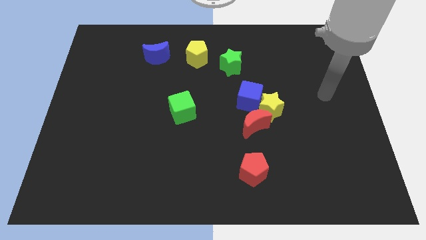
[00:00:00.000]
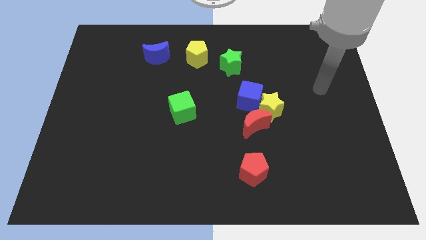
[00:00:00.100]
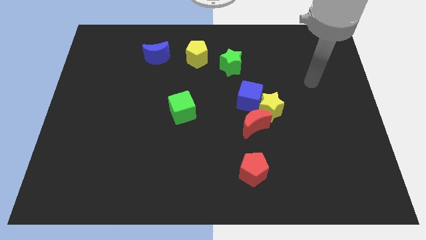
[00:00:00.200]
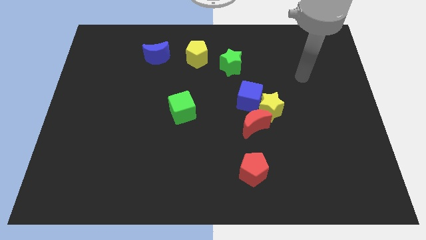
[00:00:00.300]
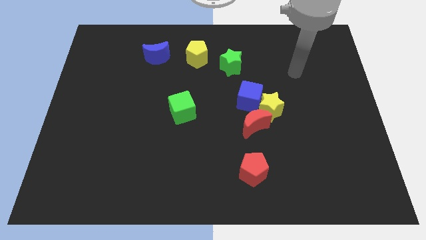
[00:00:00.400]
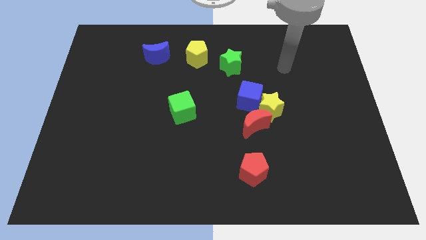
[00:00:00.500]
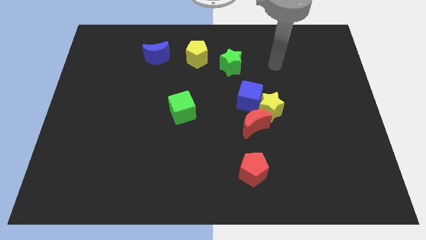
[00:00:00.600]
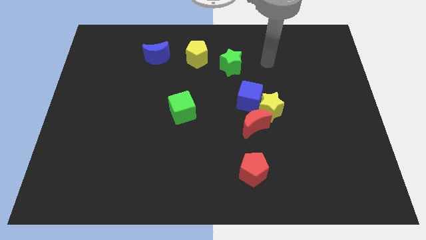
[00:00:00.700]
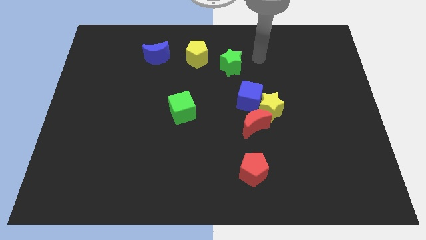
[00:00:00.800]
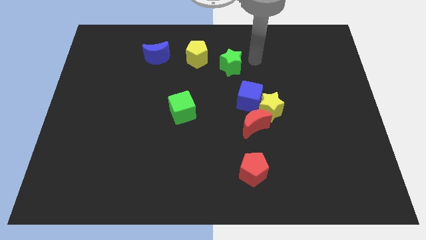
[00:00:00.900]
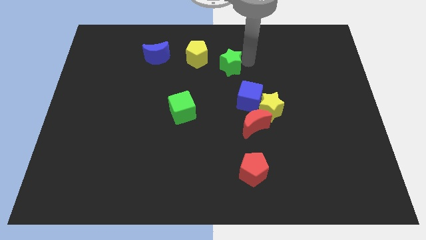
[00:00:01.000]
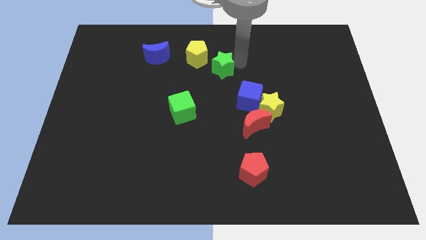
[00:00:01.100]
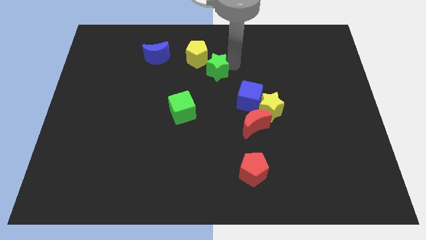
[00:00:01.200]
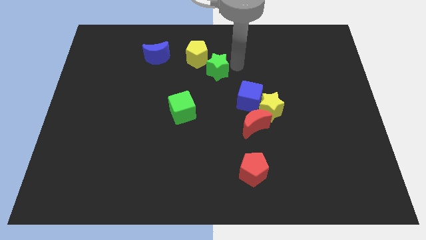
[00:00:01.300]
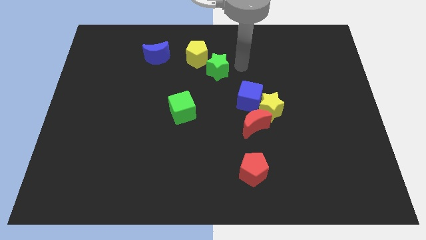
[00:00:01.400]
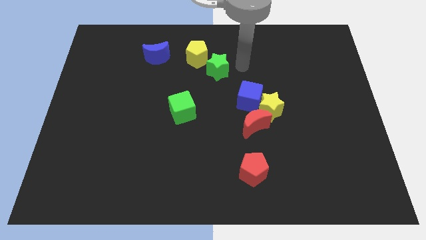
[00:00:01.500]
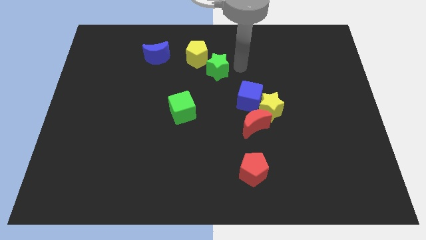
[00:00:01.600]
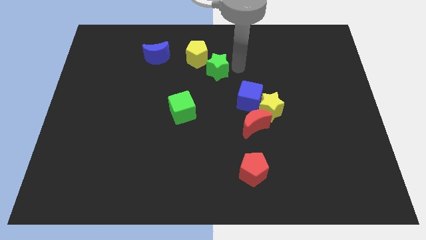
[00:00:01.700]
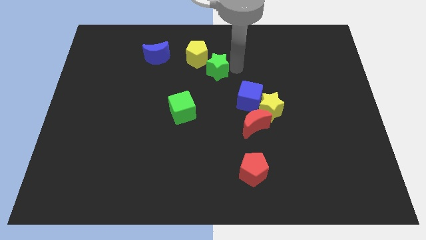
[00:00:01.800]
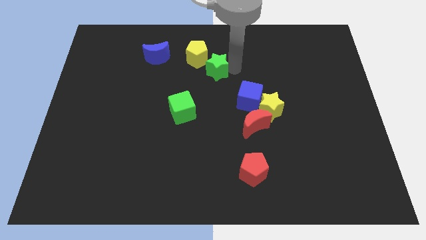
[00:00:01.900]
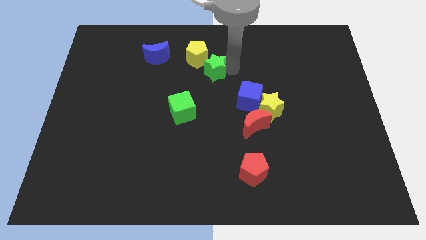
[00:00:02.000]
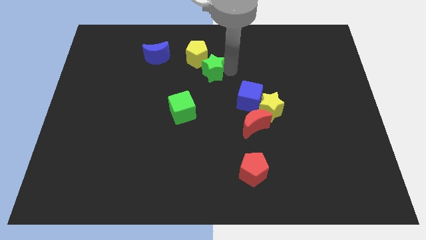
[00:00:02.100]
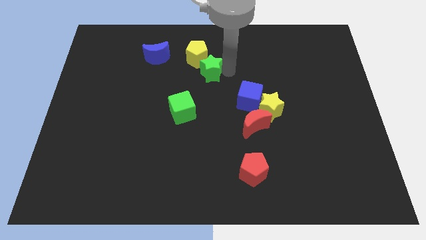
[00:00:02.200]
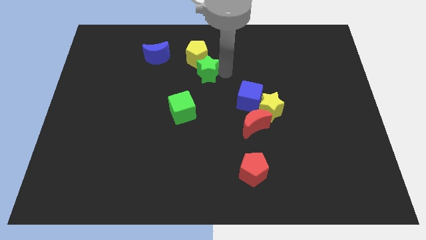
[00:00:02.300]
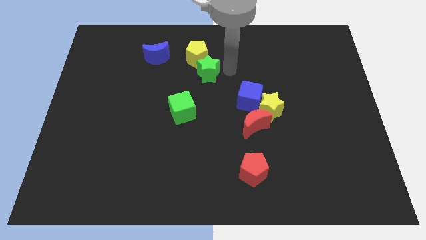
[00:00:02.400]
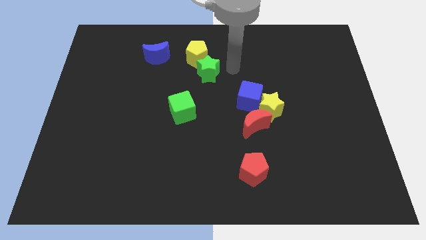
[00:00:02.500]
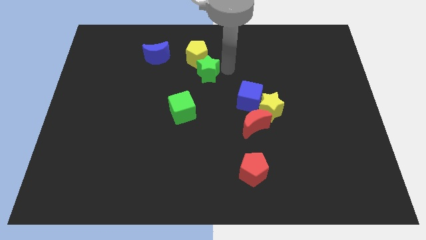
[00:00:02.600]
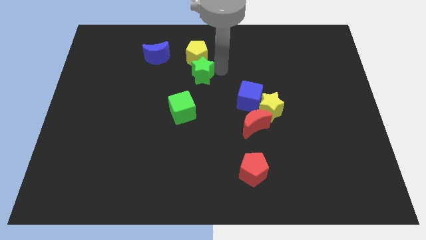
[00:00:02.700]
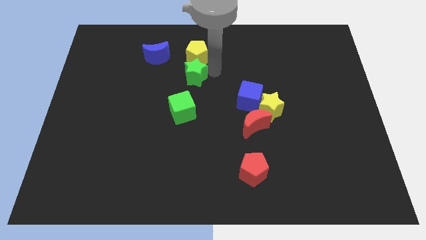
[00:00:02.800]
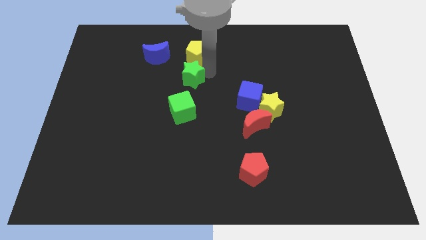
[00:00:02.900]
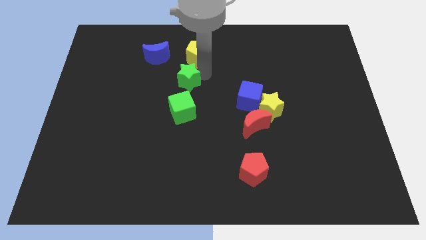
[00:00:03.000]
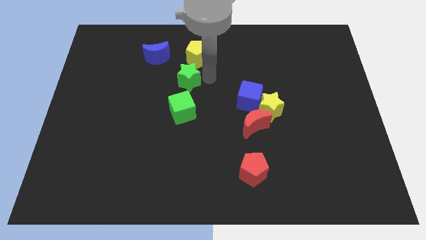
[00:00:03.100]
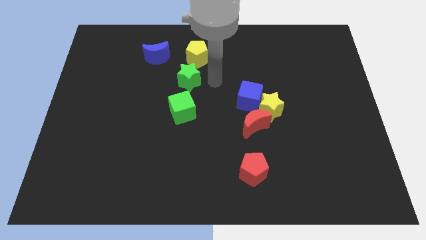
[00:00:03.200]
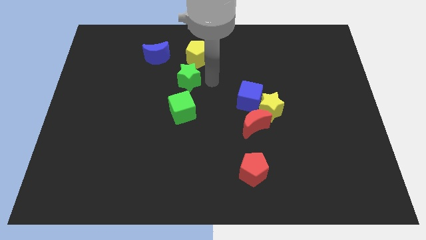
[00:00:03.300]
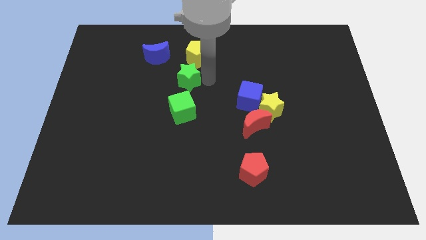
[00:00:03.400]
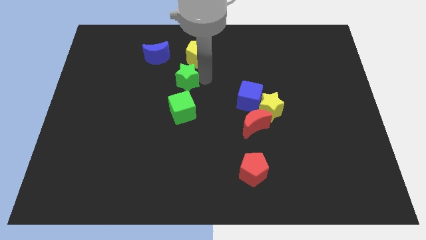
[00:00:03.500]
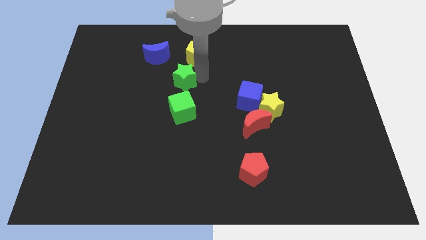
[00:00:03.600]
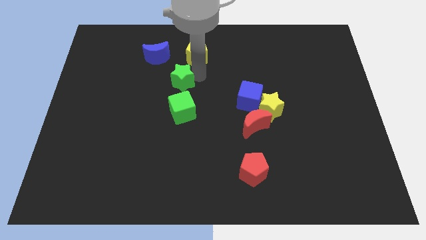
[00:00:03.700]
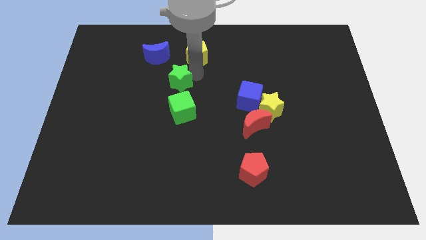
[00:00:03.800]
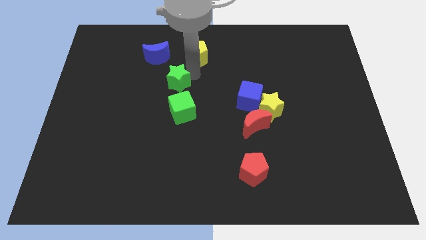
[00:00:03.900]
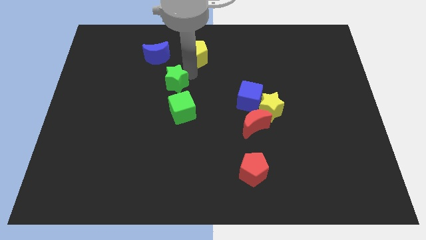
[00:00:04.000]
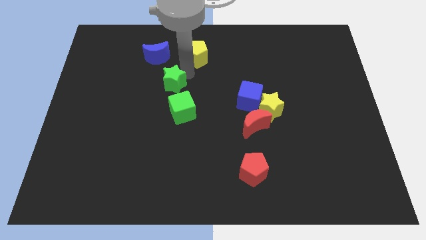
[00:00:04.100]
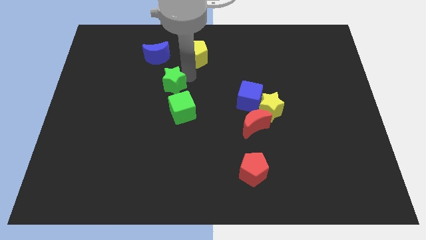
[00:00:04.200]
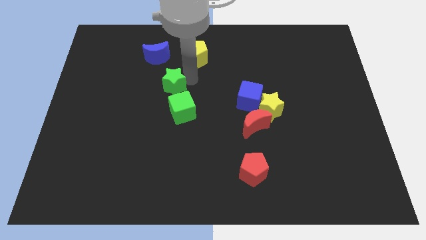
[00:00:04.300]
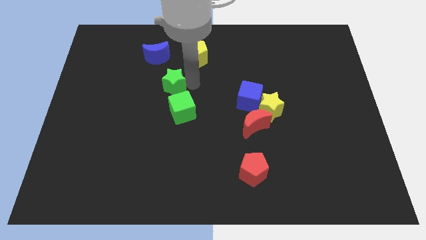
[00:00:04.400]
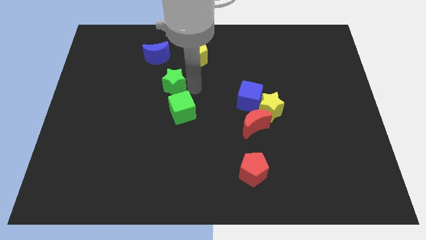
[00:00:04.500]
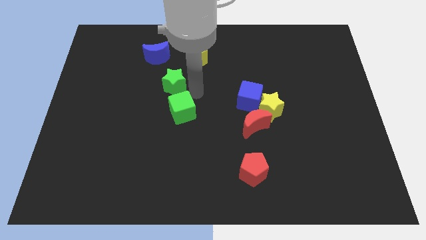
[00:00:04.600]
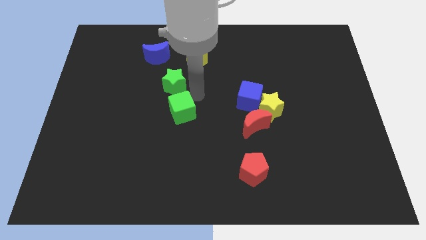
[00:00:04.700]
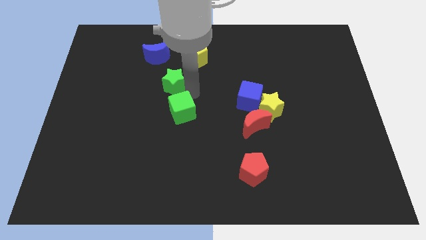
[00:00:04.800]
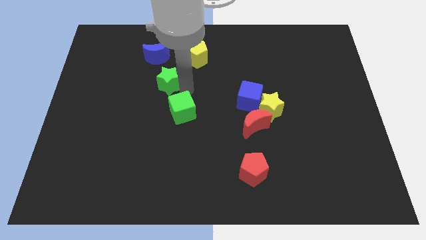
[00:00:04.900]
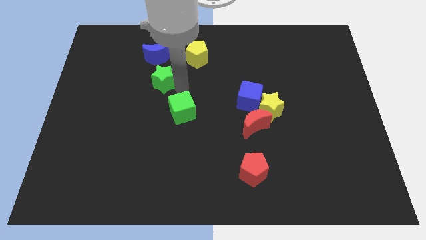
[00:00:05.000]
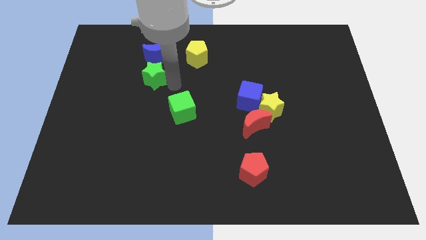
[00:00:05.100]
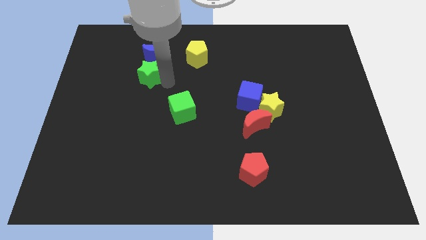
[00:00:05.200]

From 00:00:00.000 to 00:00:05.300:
slide the green star to the left

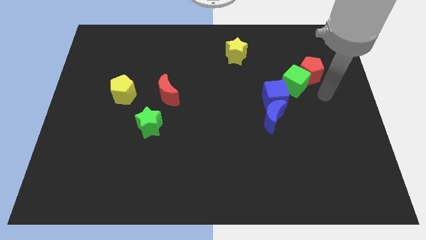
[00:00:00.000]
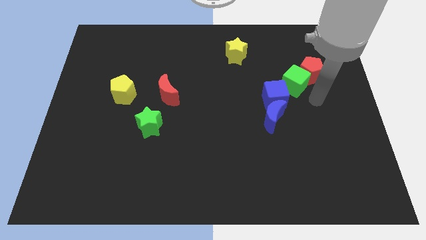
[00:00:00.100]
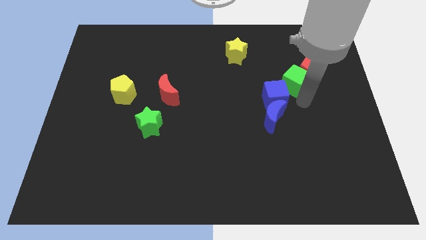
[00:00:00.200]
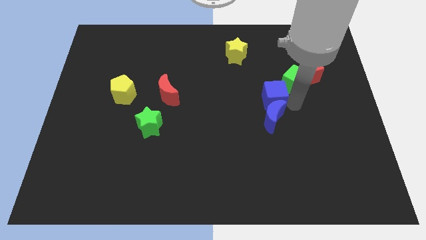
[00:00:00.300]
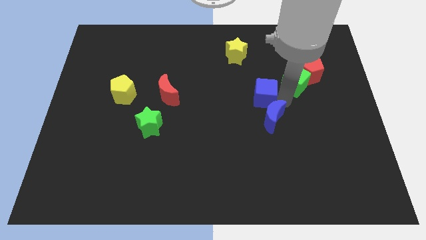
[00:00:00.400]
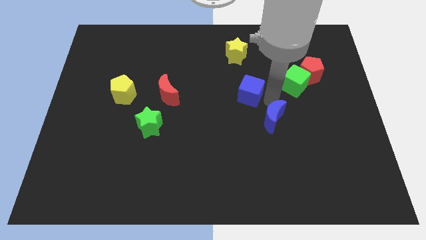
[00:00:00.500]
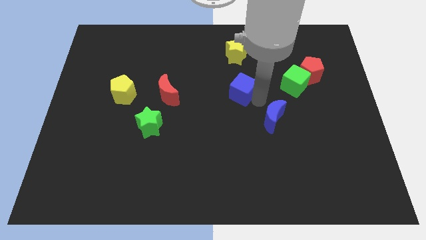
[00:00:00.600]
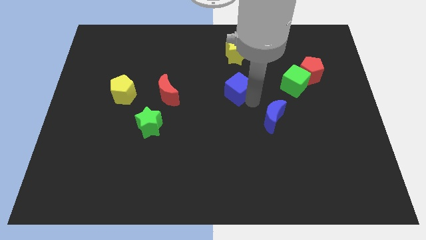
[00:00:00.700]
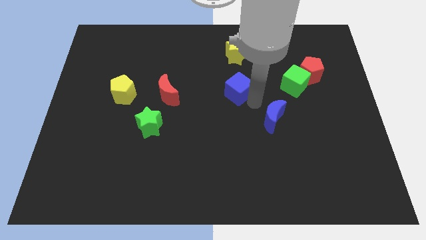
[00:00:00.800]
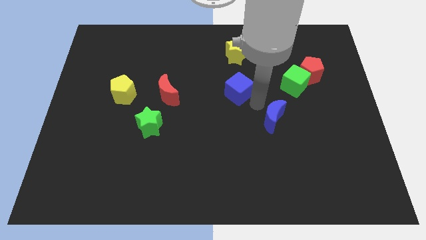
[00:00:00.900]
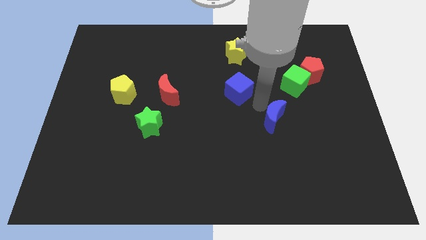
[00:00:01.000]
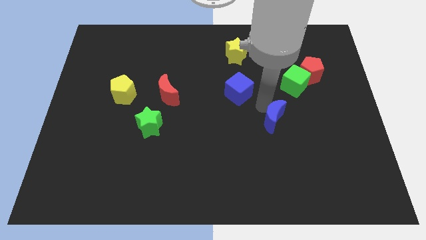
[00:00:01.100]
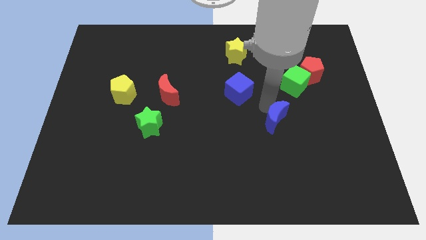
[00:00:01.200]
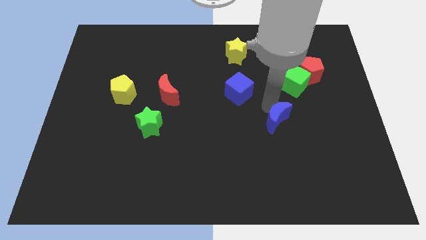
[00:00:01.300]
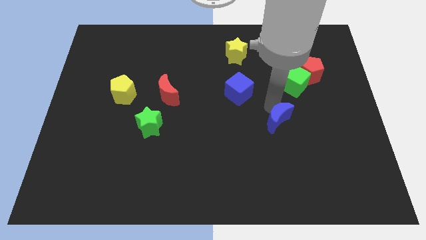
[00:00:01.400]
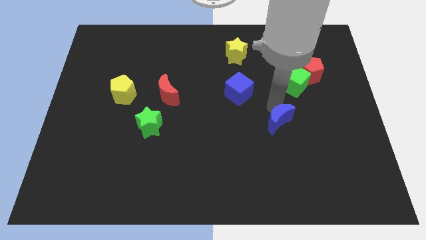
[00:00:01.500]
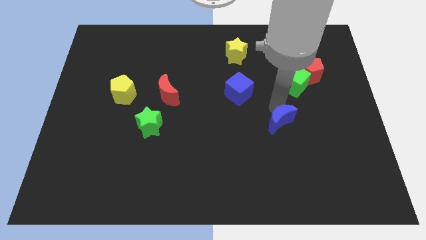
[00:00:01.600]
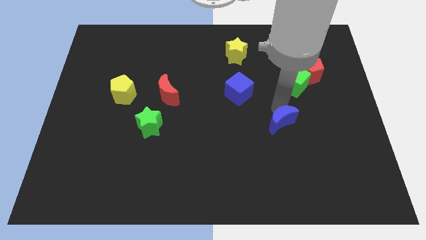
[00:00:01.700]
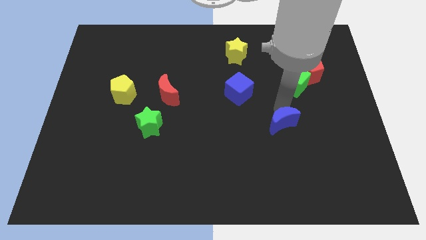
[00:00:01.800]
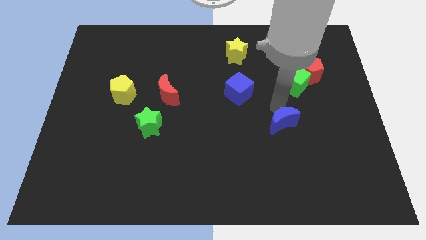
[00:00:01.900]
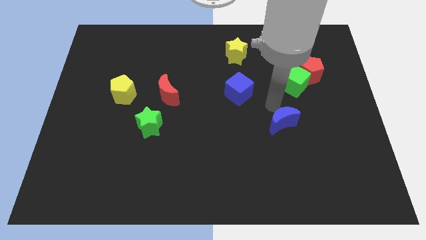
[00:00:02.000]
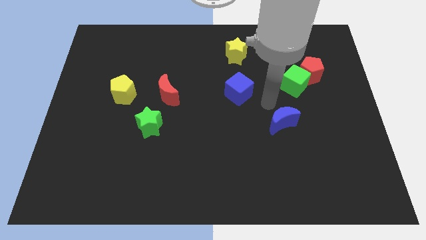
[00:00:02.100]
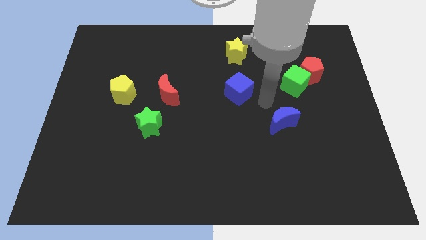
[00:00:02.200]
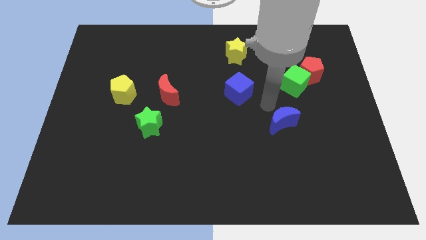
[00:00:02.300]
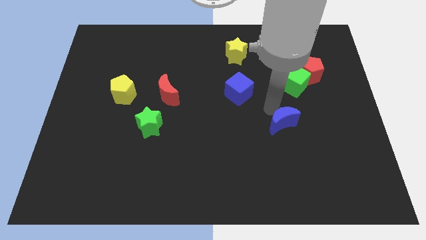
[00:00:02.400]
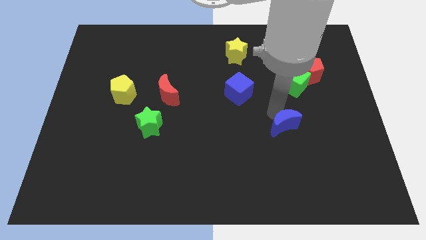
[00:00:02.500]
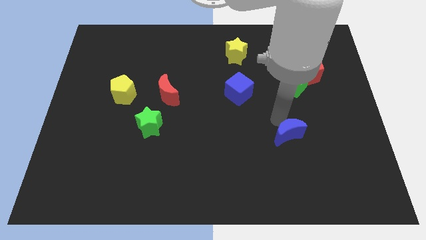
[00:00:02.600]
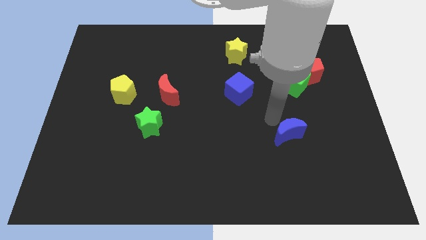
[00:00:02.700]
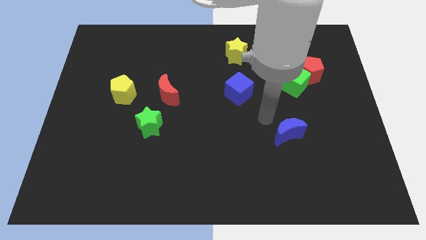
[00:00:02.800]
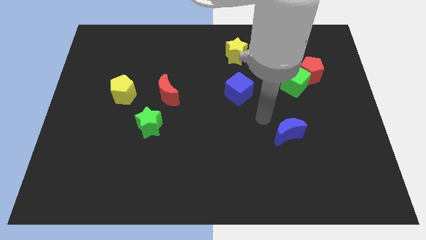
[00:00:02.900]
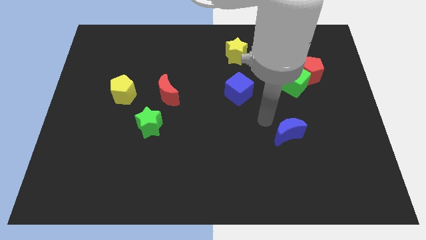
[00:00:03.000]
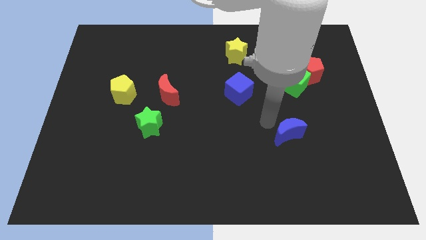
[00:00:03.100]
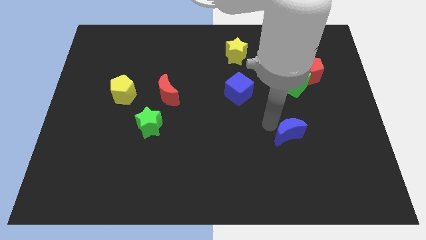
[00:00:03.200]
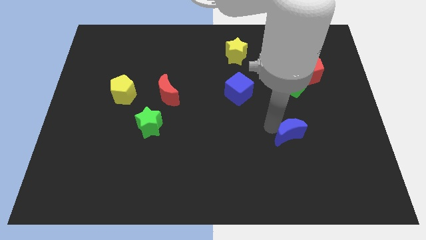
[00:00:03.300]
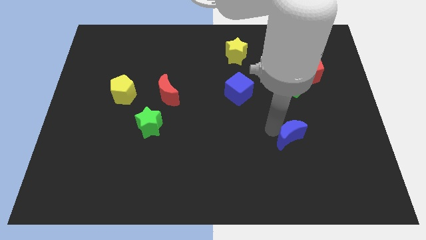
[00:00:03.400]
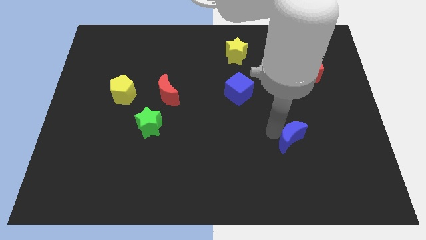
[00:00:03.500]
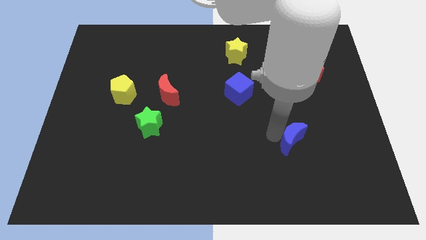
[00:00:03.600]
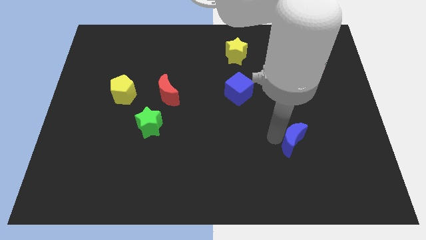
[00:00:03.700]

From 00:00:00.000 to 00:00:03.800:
slide the blue moon a little diagonally downwards and to the right
